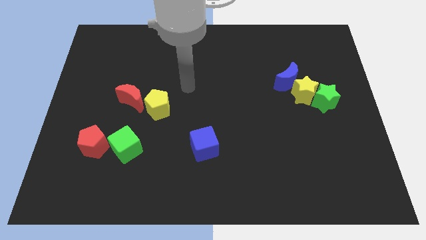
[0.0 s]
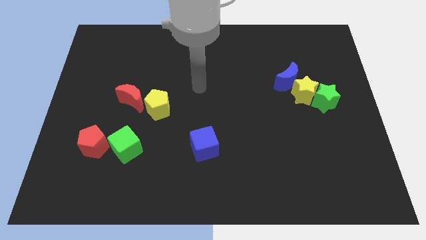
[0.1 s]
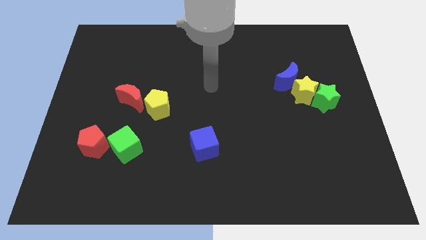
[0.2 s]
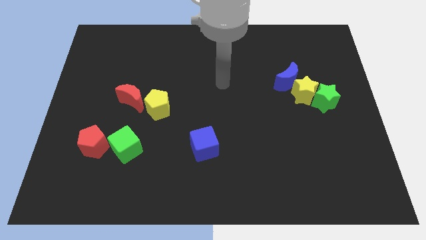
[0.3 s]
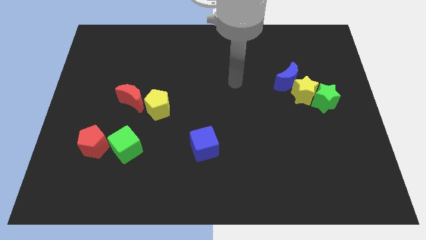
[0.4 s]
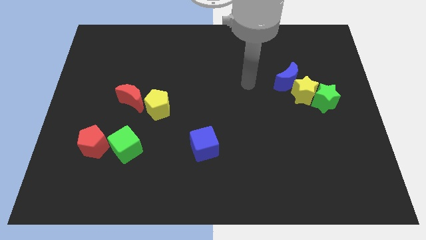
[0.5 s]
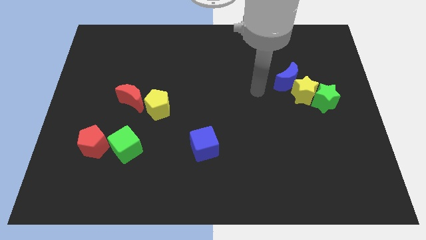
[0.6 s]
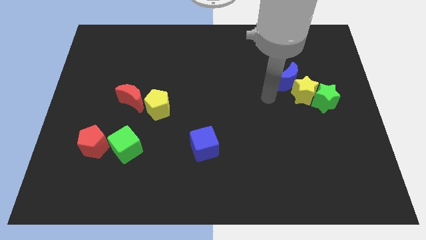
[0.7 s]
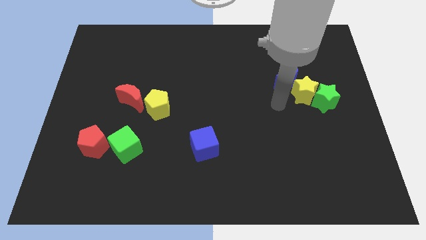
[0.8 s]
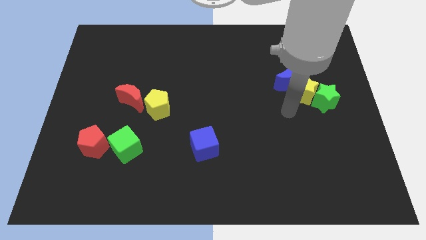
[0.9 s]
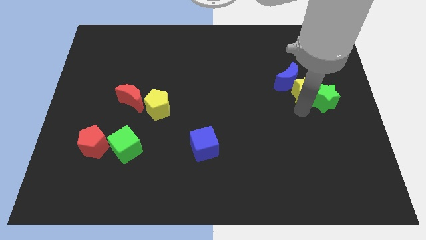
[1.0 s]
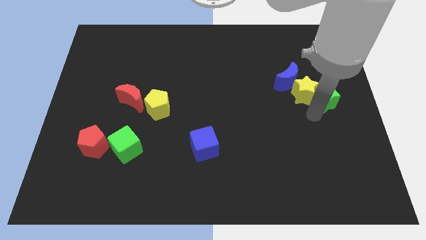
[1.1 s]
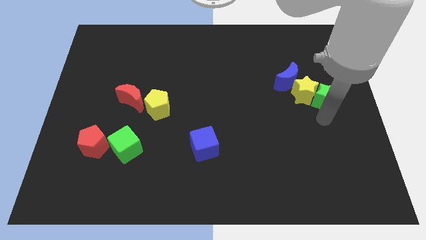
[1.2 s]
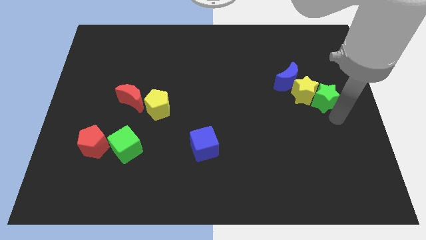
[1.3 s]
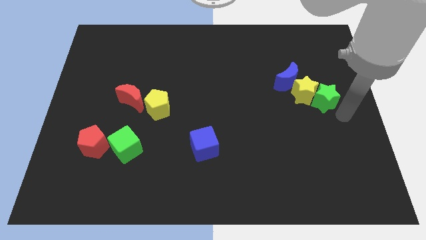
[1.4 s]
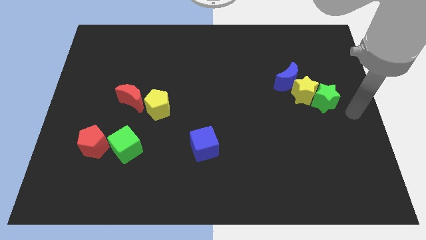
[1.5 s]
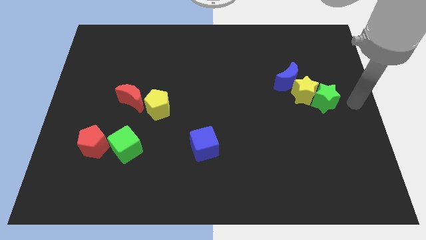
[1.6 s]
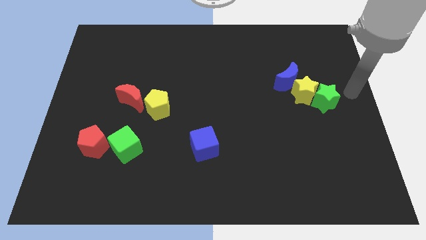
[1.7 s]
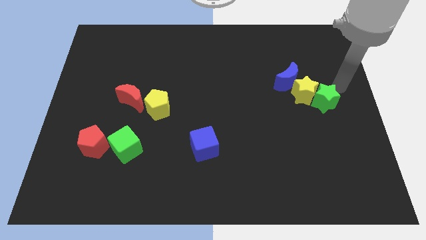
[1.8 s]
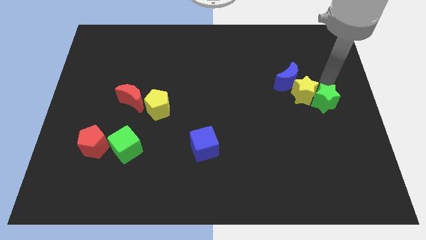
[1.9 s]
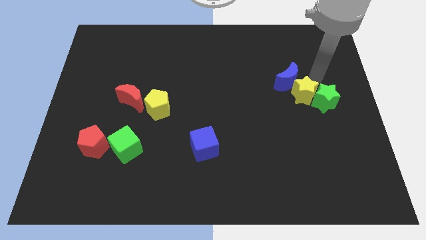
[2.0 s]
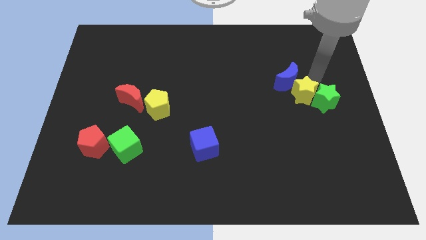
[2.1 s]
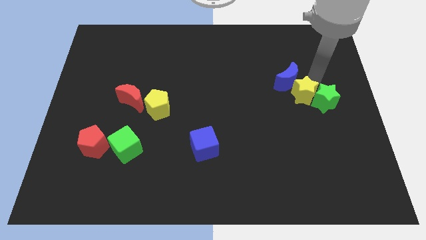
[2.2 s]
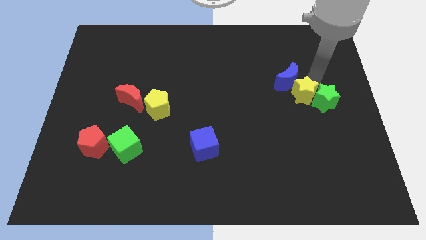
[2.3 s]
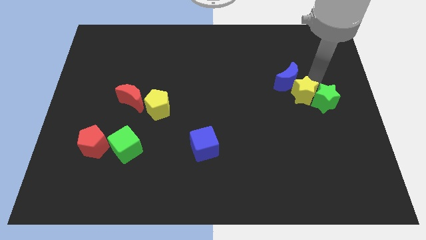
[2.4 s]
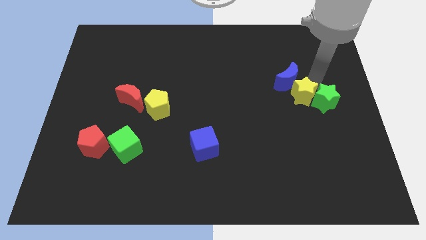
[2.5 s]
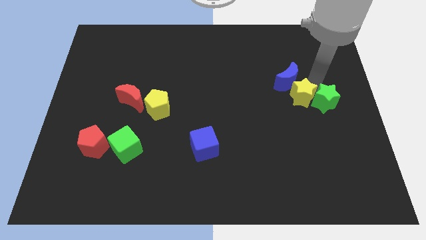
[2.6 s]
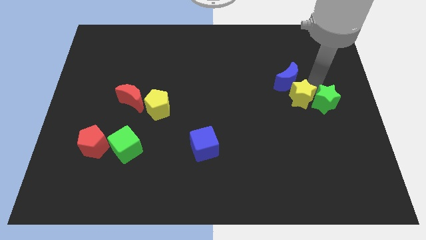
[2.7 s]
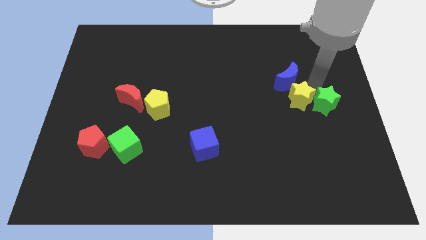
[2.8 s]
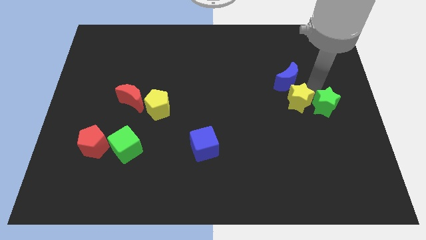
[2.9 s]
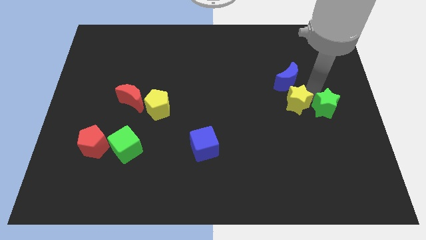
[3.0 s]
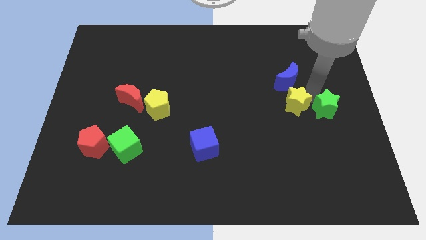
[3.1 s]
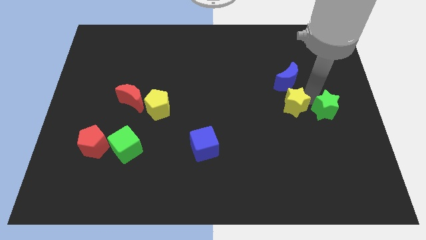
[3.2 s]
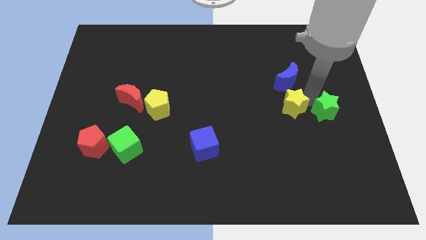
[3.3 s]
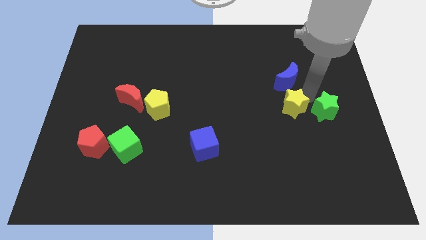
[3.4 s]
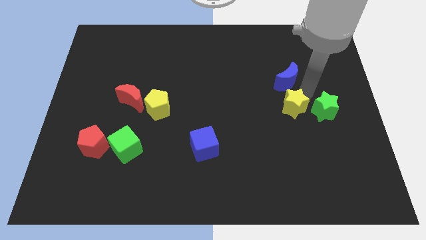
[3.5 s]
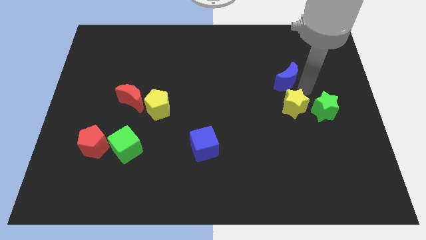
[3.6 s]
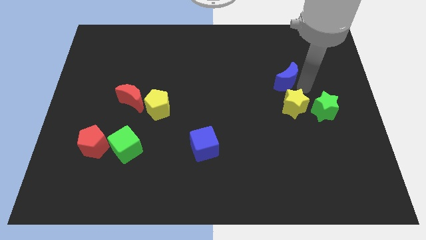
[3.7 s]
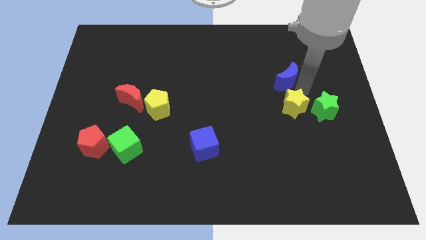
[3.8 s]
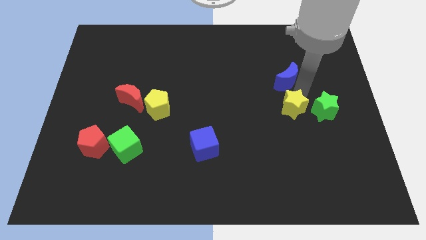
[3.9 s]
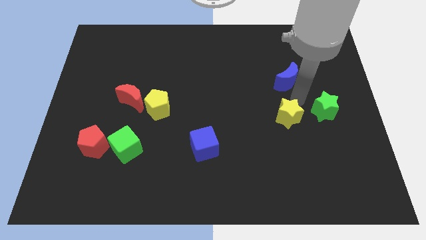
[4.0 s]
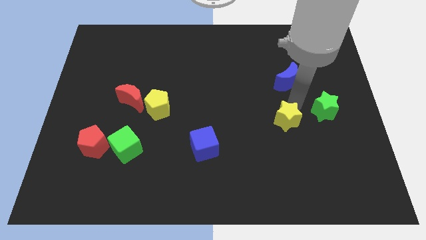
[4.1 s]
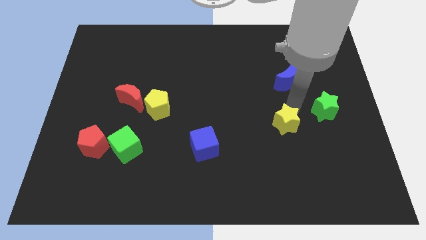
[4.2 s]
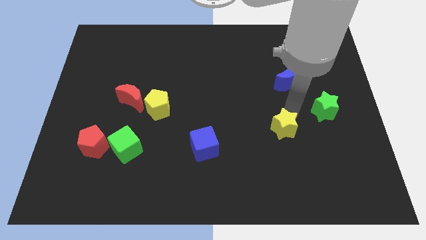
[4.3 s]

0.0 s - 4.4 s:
separate the yellow star from the green star and blue moon

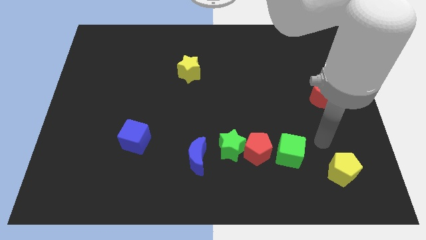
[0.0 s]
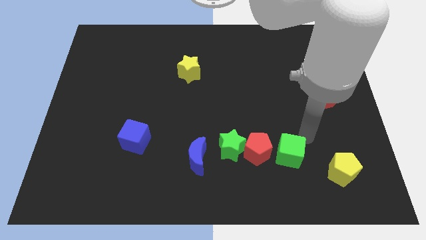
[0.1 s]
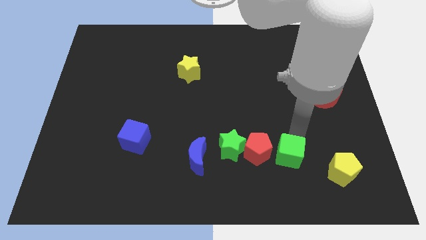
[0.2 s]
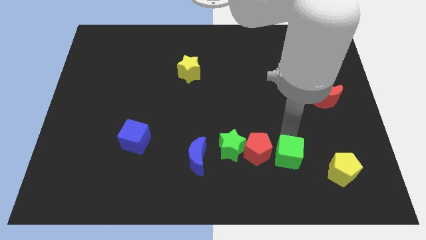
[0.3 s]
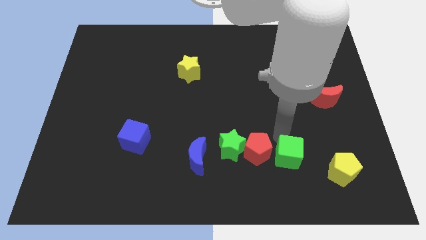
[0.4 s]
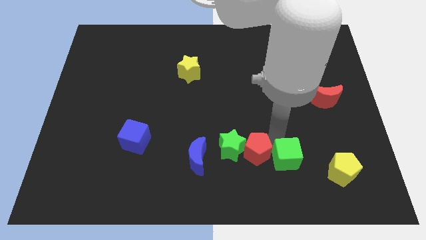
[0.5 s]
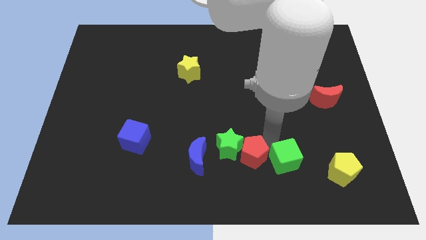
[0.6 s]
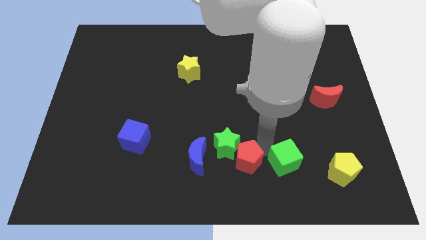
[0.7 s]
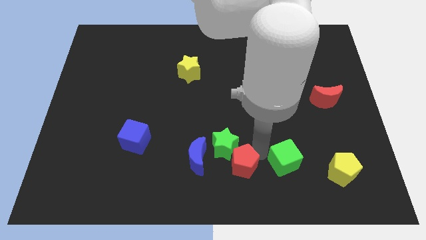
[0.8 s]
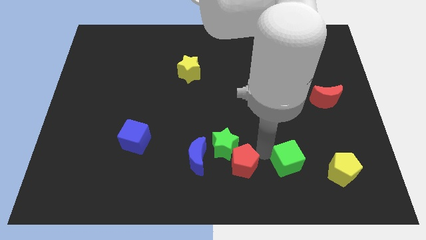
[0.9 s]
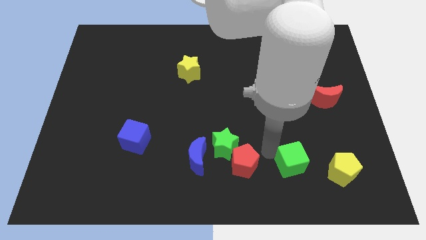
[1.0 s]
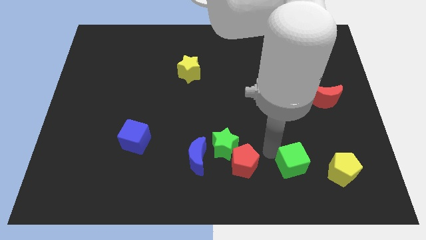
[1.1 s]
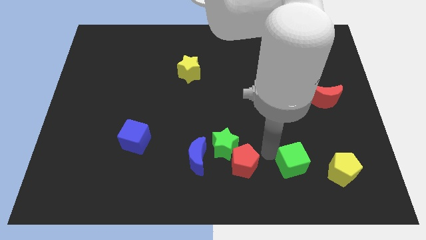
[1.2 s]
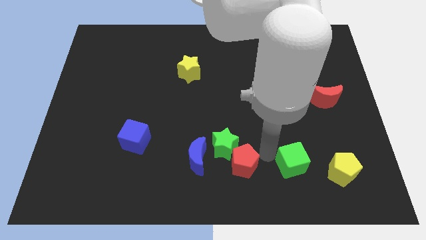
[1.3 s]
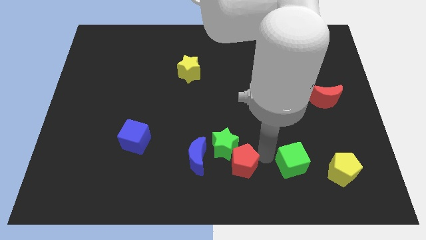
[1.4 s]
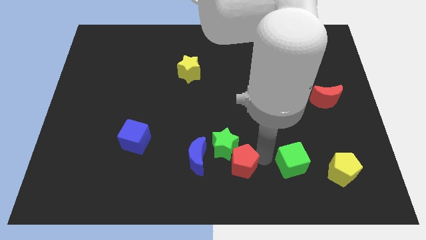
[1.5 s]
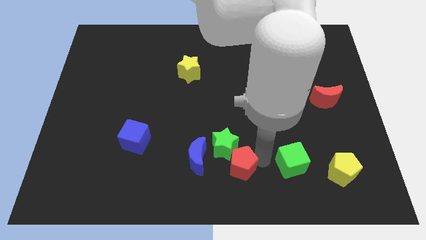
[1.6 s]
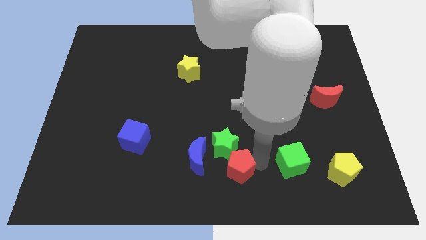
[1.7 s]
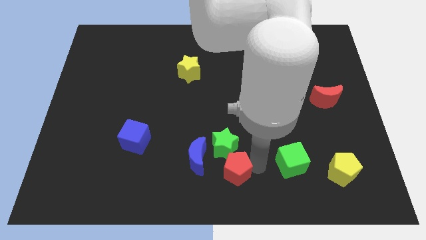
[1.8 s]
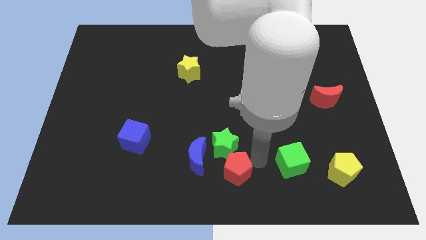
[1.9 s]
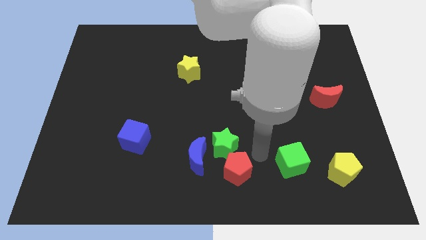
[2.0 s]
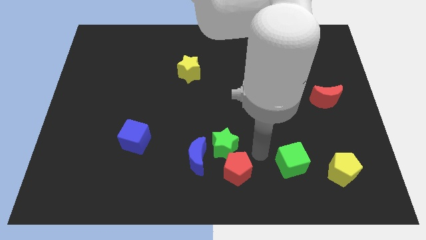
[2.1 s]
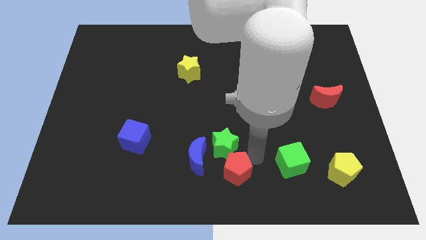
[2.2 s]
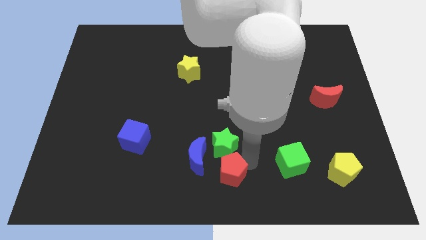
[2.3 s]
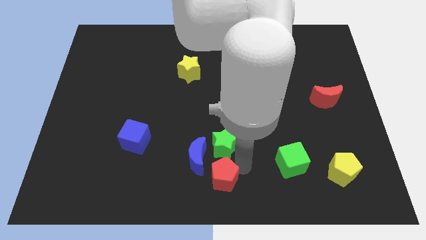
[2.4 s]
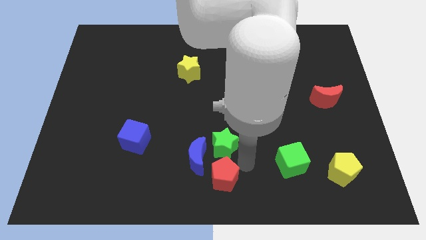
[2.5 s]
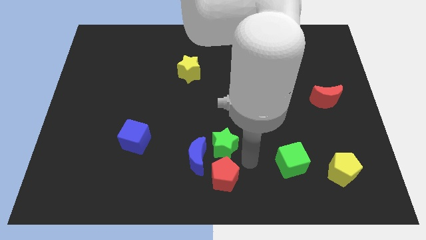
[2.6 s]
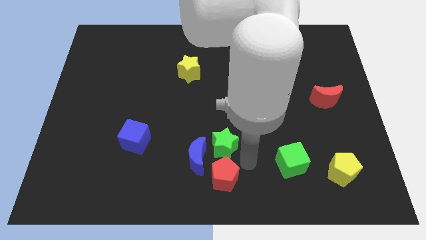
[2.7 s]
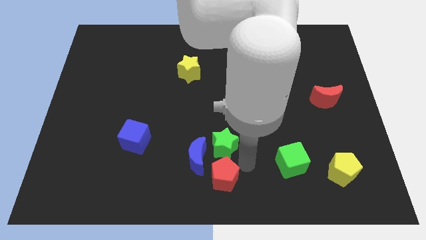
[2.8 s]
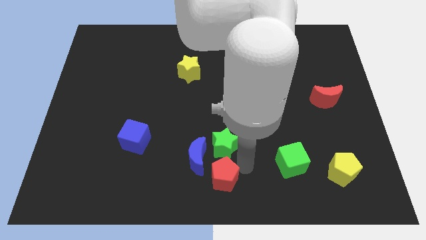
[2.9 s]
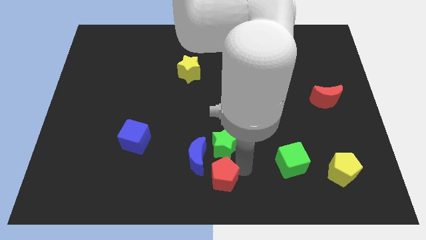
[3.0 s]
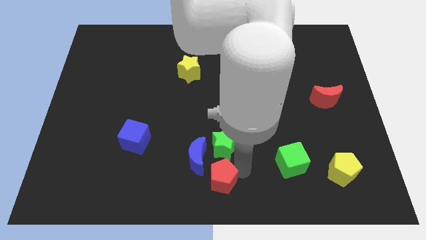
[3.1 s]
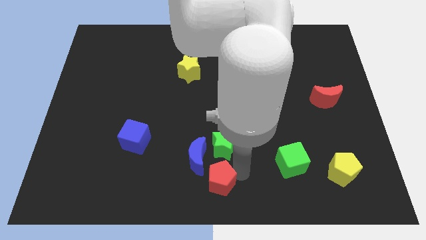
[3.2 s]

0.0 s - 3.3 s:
separate the red pentagon from the green star and green cube

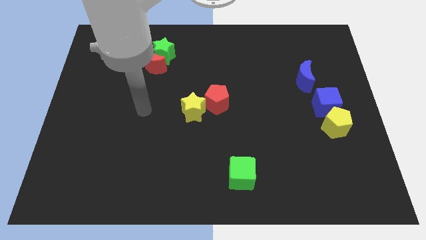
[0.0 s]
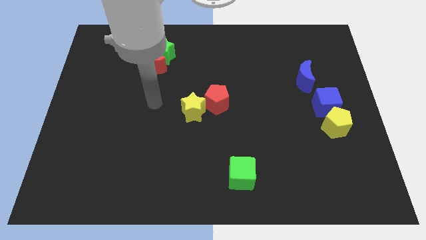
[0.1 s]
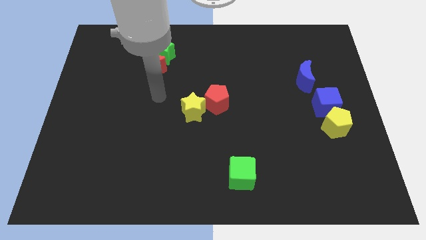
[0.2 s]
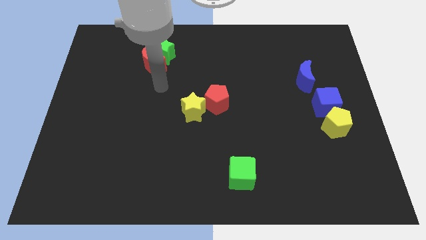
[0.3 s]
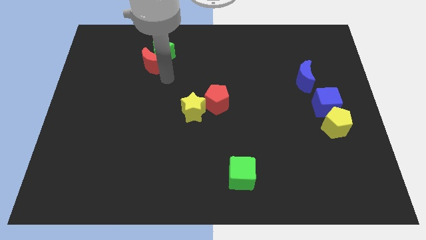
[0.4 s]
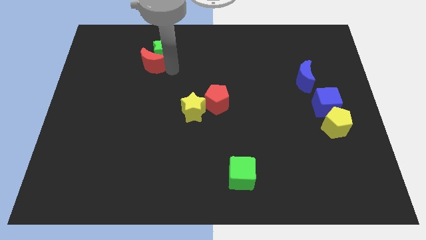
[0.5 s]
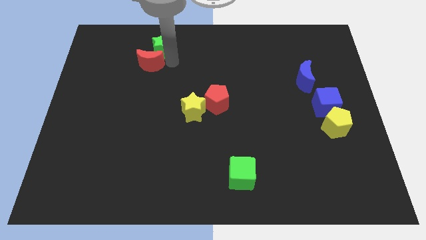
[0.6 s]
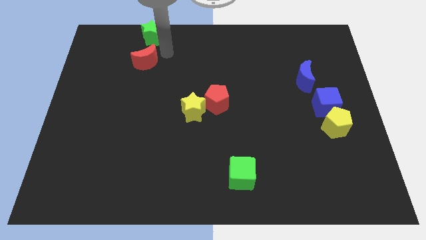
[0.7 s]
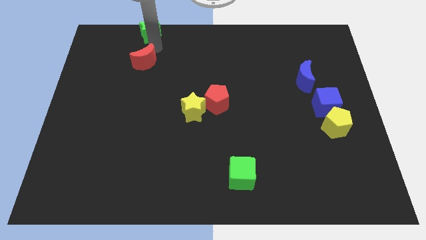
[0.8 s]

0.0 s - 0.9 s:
move the red moon away from the green star

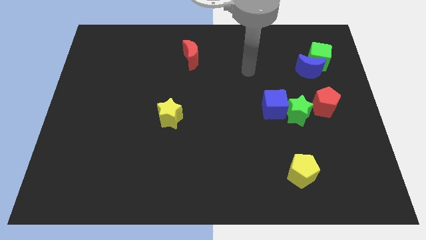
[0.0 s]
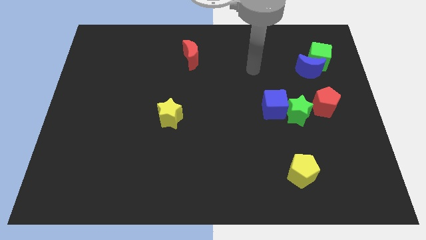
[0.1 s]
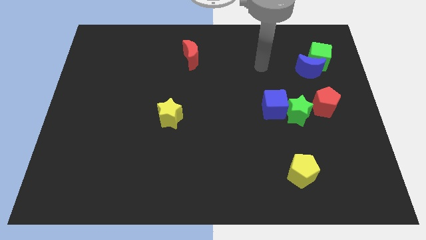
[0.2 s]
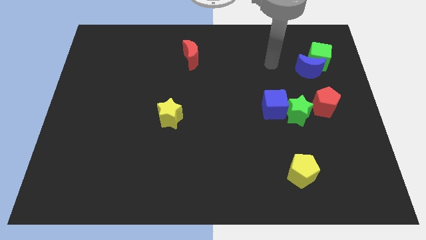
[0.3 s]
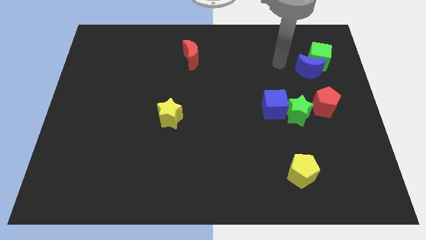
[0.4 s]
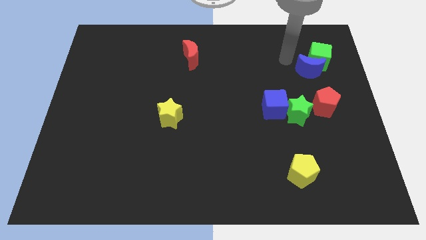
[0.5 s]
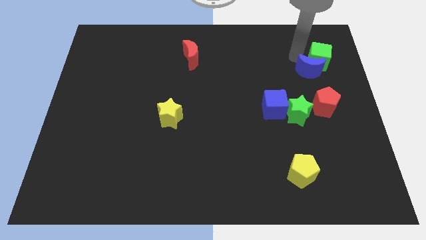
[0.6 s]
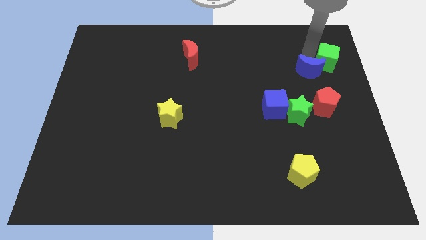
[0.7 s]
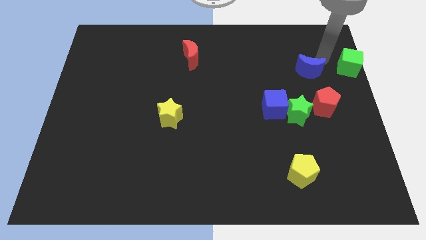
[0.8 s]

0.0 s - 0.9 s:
pull the blue moon apart from the green cube
